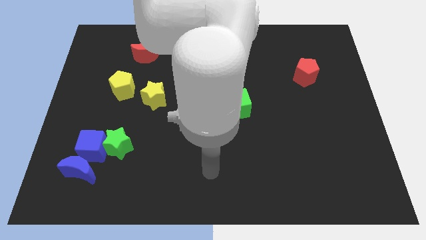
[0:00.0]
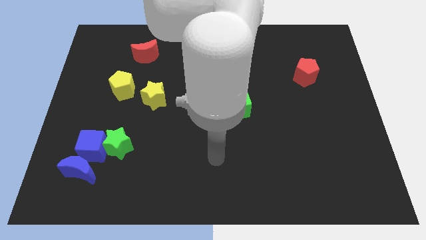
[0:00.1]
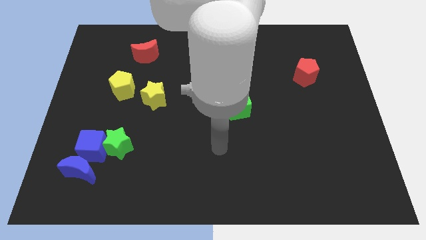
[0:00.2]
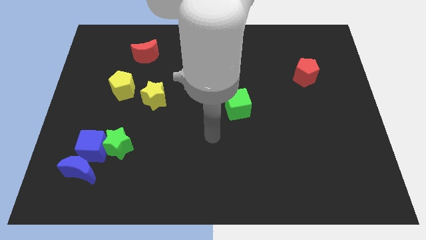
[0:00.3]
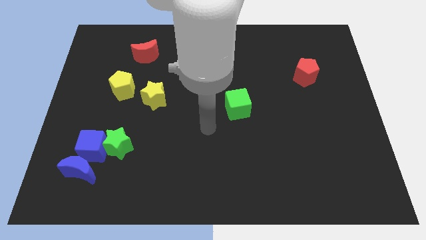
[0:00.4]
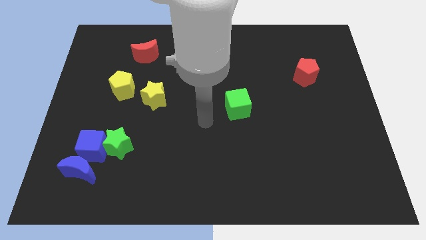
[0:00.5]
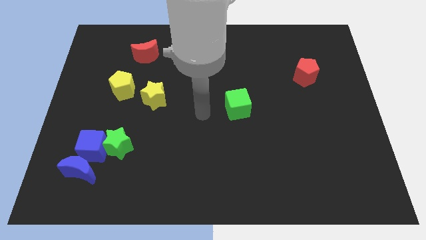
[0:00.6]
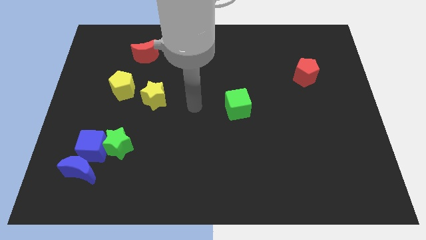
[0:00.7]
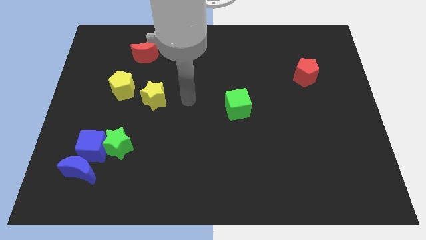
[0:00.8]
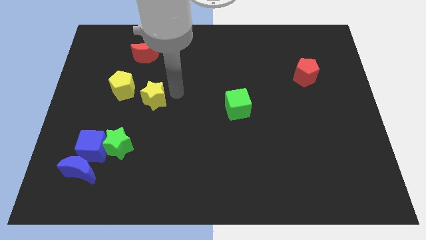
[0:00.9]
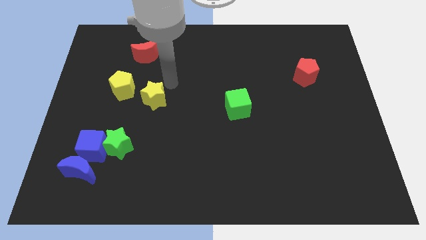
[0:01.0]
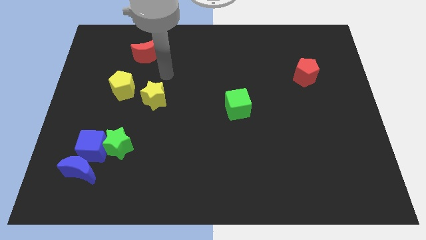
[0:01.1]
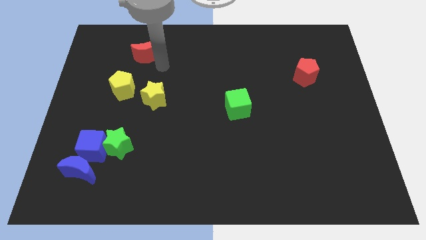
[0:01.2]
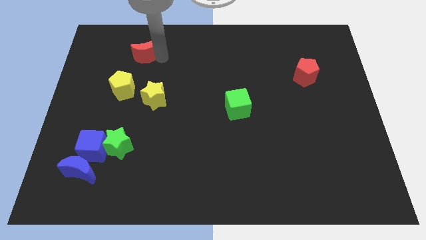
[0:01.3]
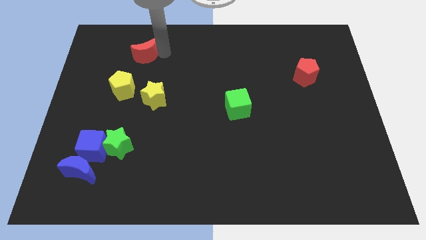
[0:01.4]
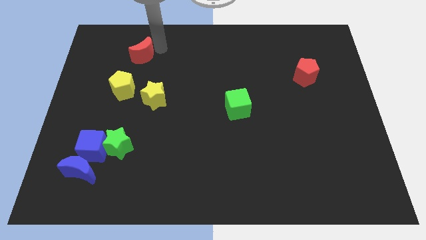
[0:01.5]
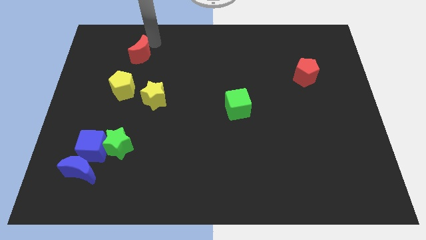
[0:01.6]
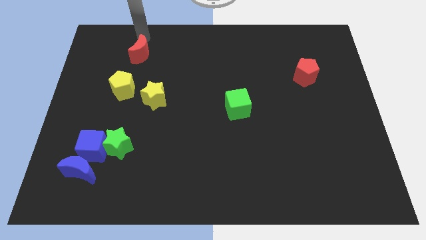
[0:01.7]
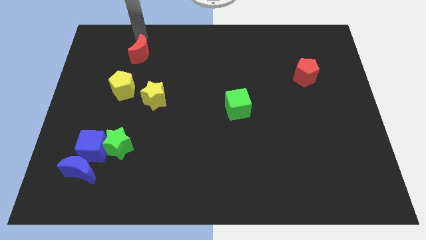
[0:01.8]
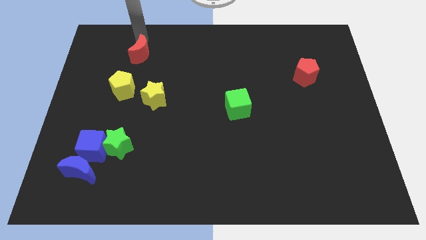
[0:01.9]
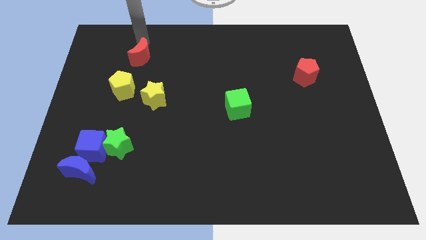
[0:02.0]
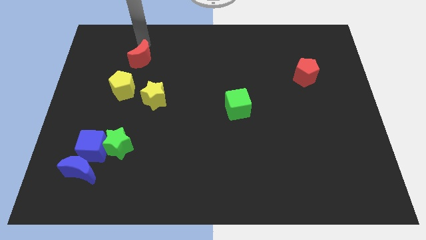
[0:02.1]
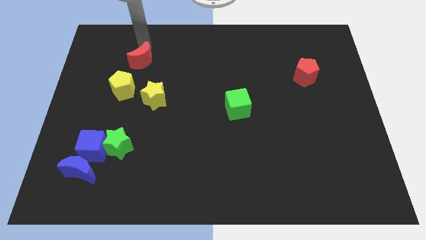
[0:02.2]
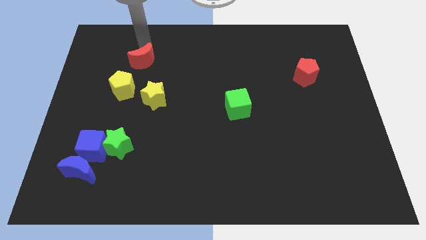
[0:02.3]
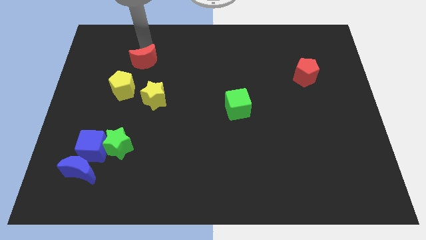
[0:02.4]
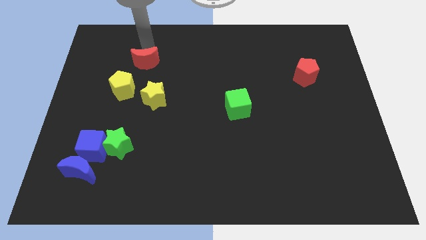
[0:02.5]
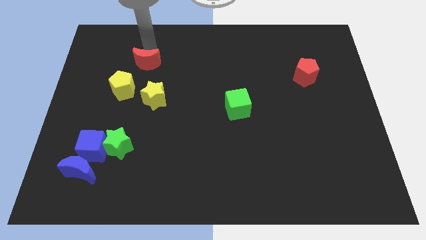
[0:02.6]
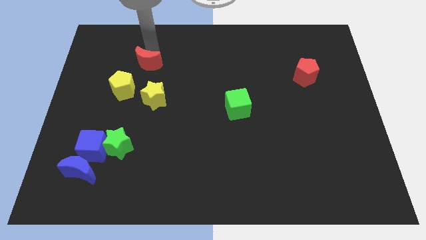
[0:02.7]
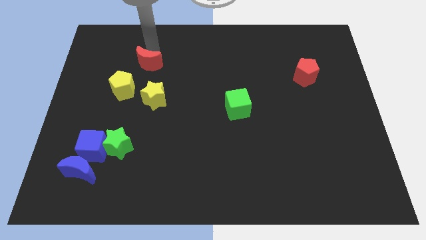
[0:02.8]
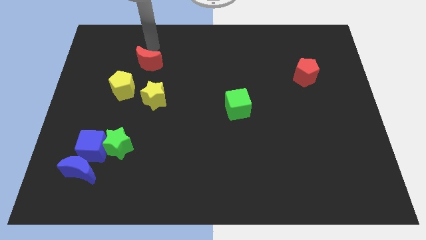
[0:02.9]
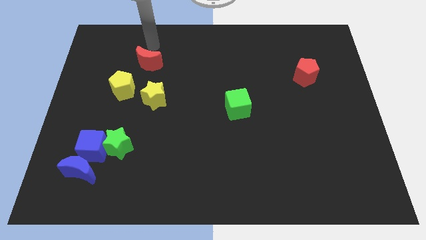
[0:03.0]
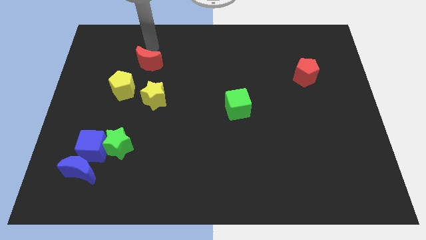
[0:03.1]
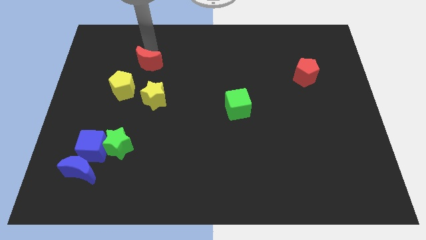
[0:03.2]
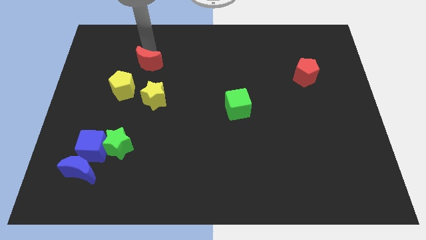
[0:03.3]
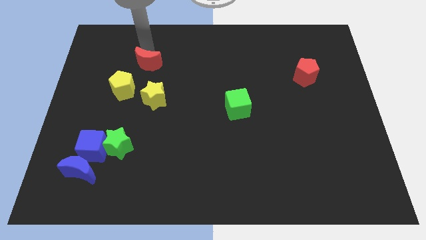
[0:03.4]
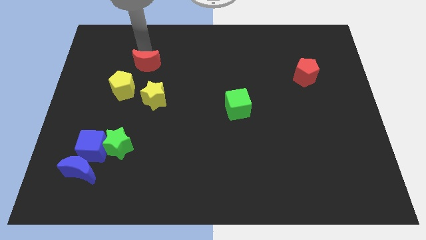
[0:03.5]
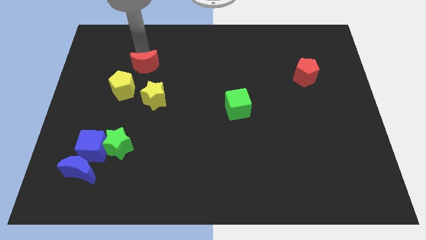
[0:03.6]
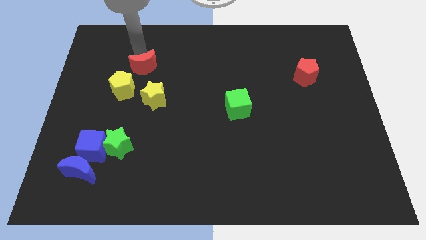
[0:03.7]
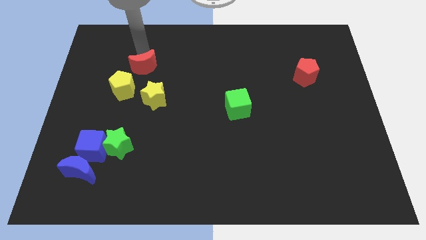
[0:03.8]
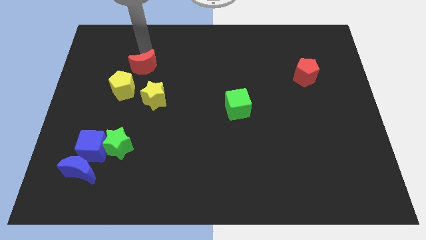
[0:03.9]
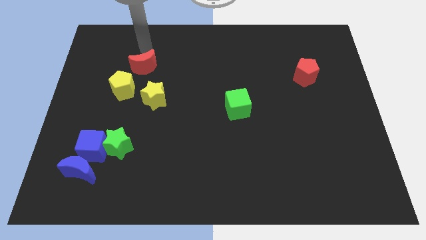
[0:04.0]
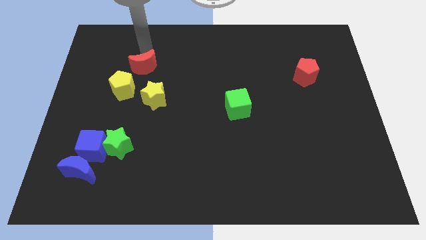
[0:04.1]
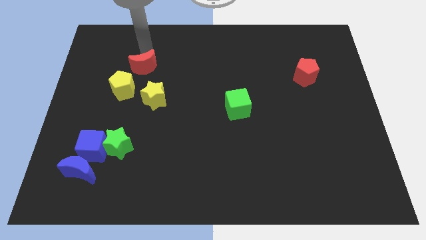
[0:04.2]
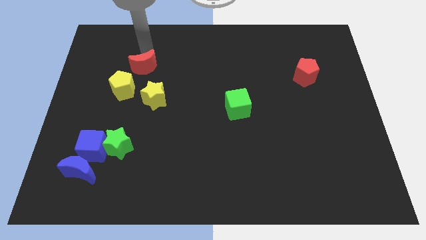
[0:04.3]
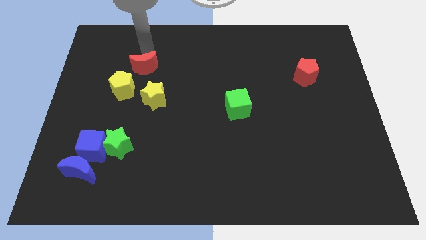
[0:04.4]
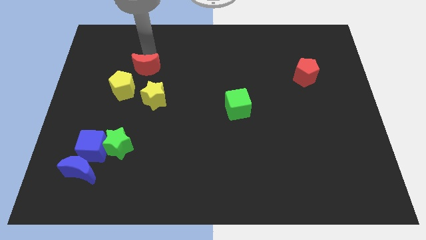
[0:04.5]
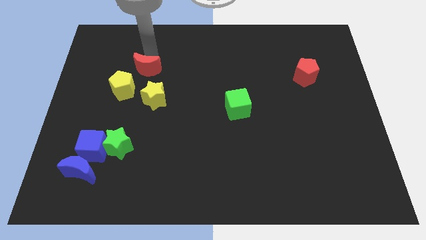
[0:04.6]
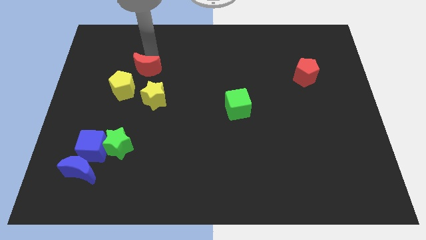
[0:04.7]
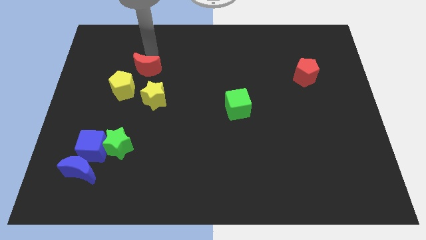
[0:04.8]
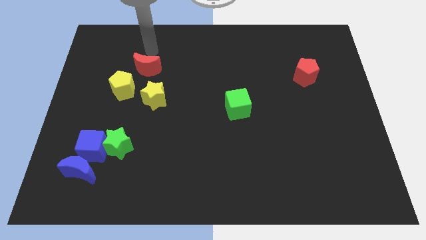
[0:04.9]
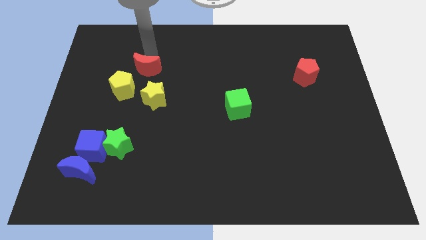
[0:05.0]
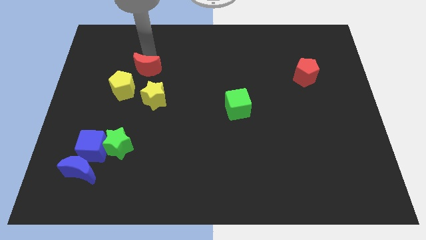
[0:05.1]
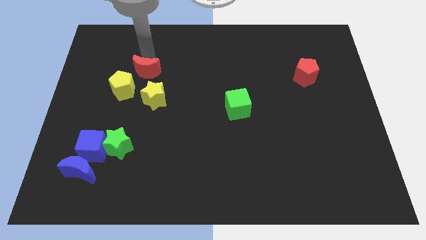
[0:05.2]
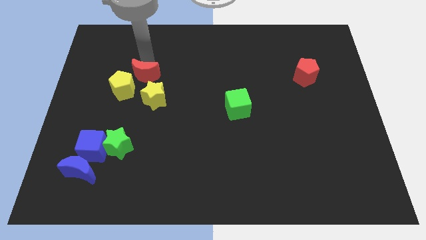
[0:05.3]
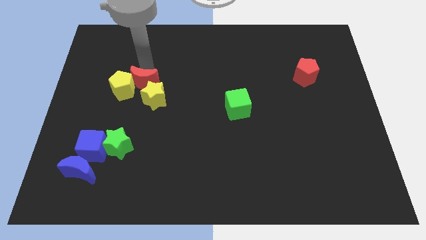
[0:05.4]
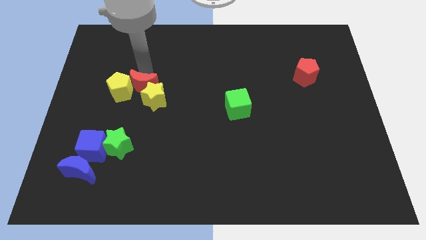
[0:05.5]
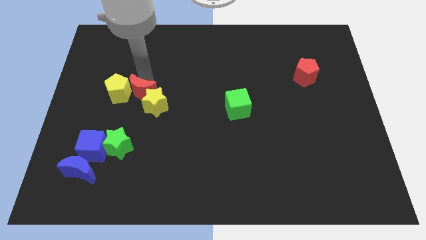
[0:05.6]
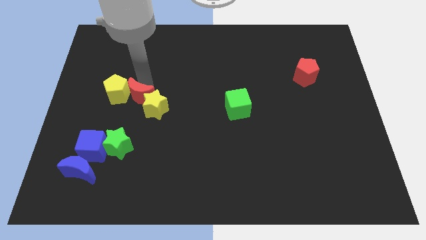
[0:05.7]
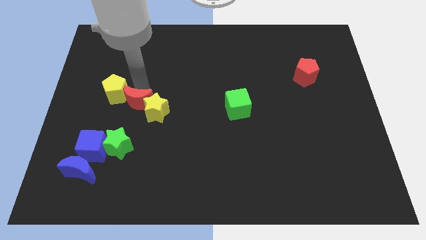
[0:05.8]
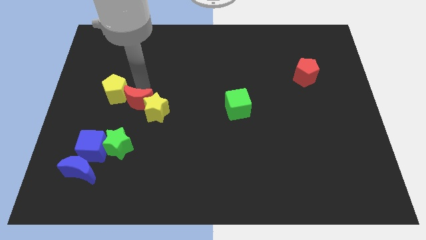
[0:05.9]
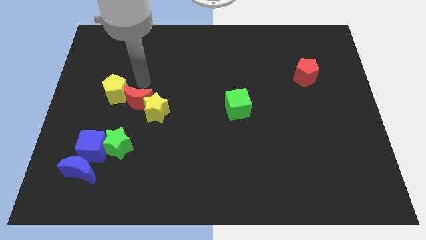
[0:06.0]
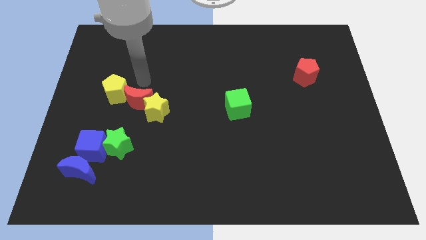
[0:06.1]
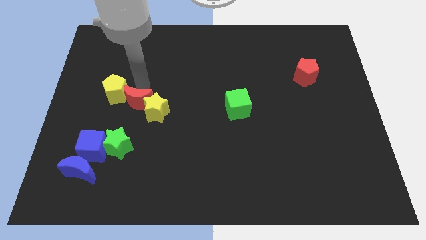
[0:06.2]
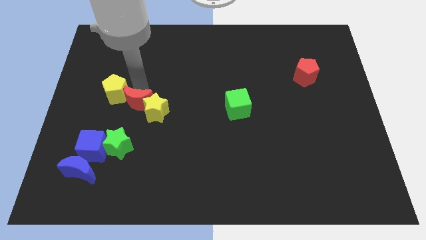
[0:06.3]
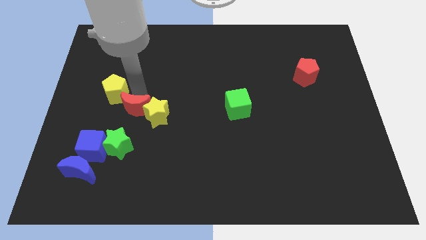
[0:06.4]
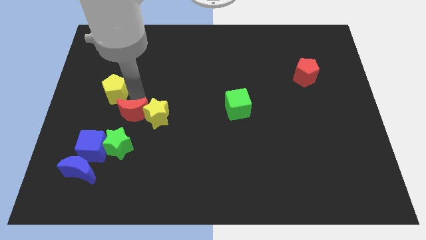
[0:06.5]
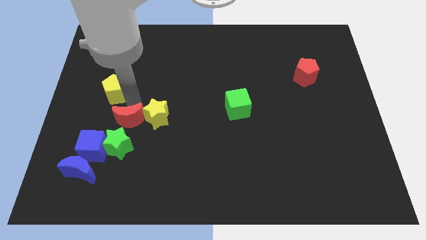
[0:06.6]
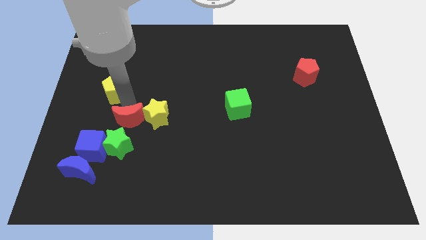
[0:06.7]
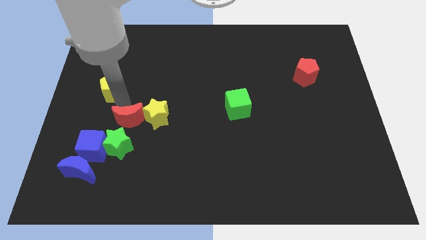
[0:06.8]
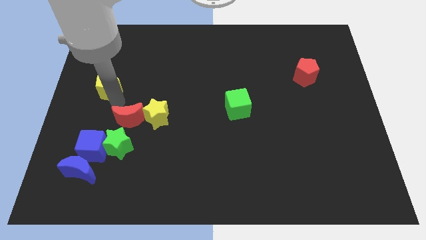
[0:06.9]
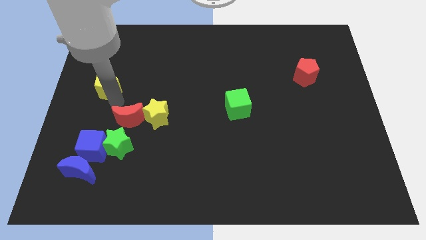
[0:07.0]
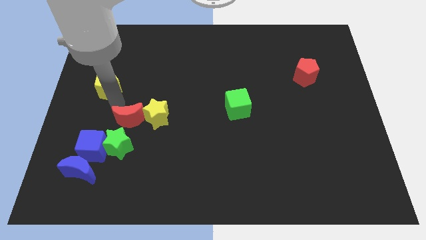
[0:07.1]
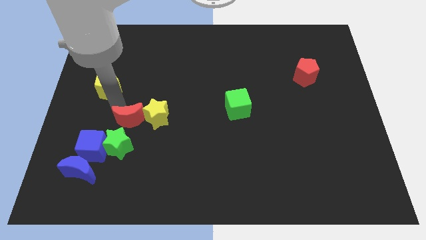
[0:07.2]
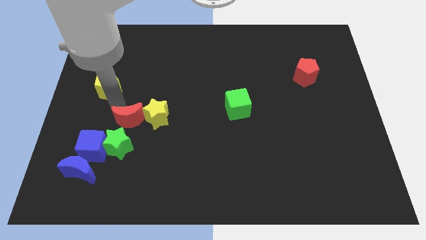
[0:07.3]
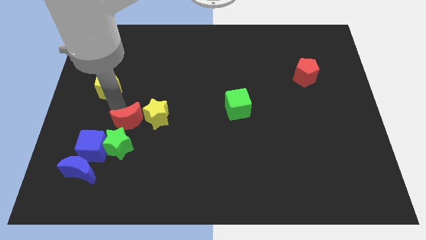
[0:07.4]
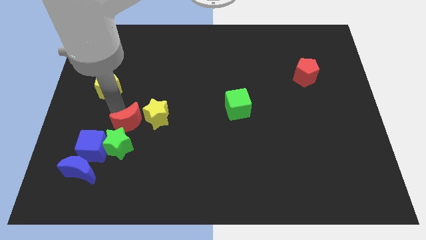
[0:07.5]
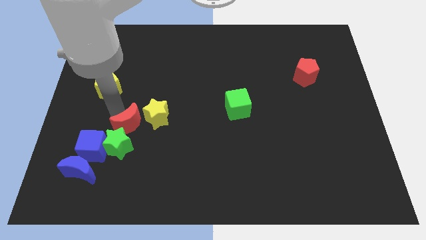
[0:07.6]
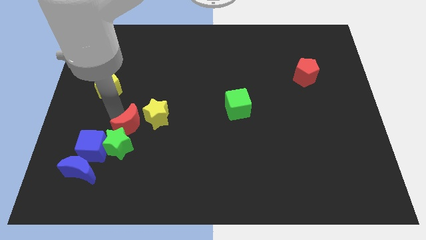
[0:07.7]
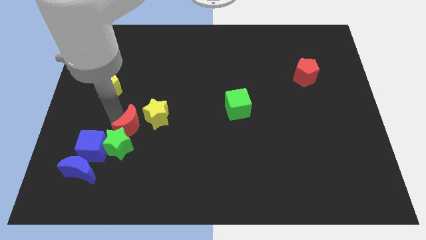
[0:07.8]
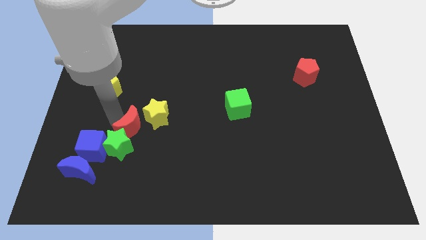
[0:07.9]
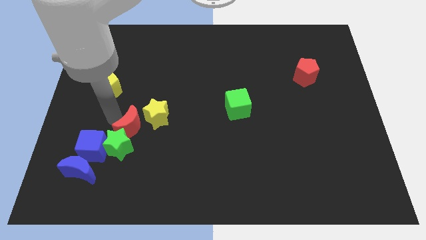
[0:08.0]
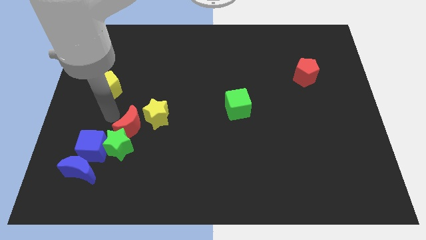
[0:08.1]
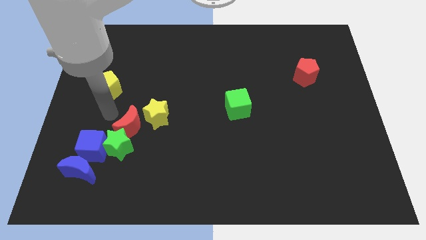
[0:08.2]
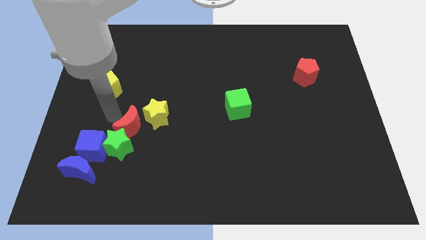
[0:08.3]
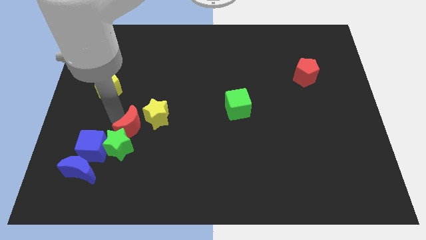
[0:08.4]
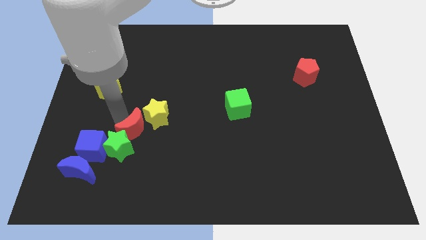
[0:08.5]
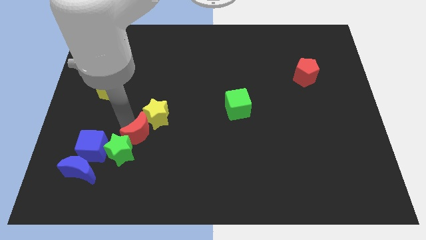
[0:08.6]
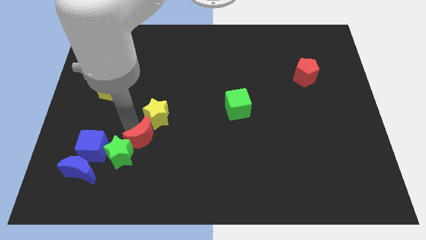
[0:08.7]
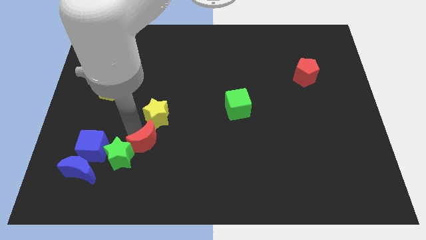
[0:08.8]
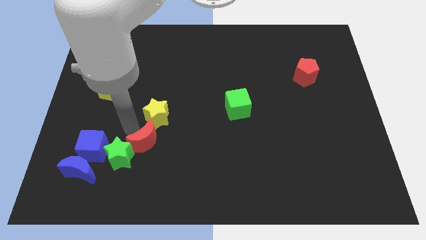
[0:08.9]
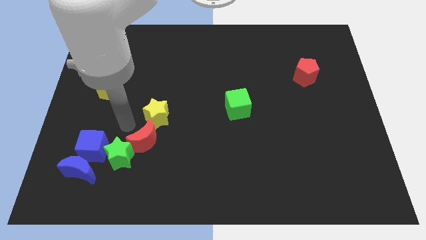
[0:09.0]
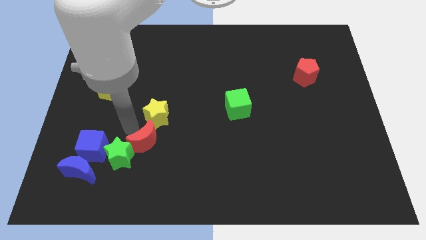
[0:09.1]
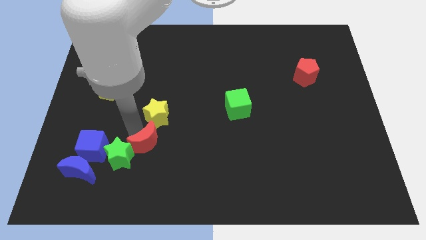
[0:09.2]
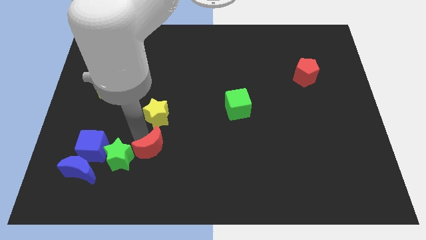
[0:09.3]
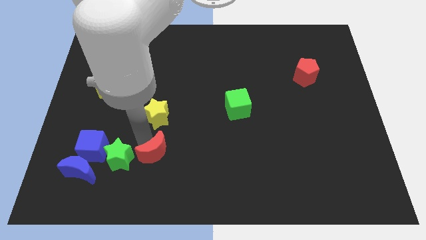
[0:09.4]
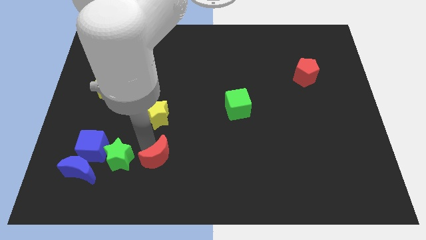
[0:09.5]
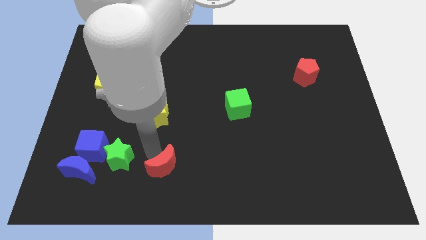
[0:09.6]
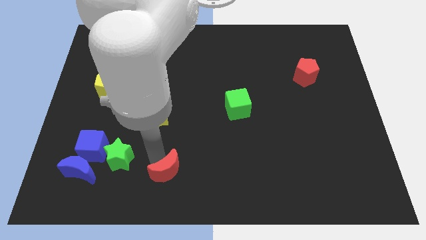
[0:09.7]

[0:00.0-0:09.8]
move the red moon to the bottom side
